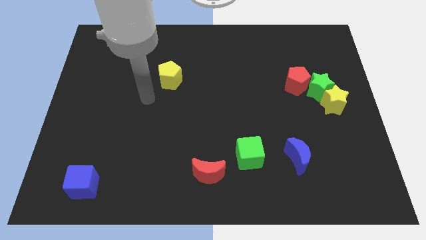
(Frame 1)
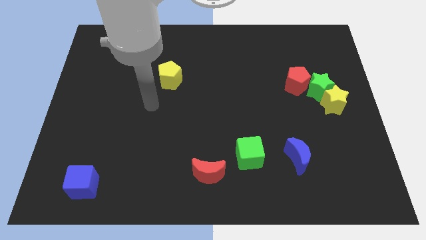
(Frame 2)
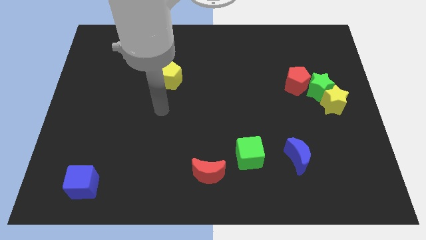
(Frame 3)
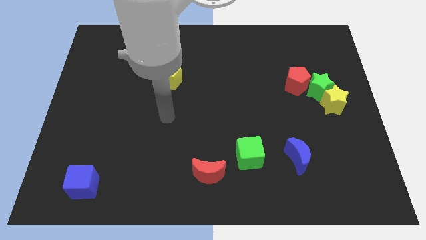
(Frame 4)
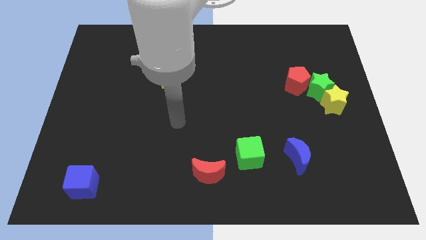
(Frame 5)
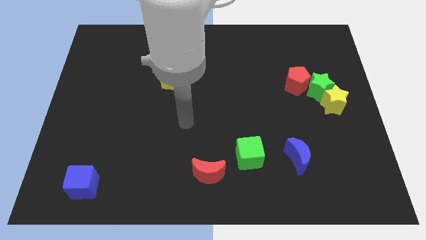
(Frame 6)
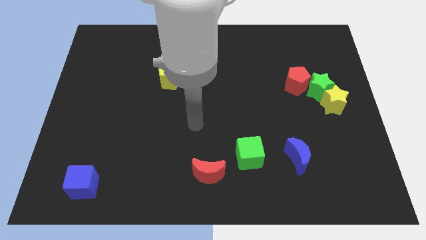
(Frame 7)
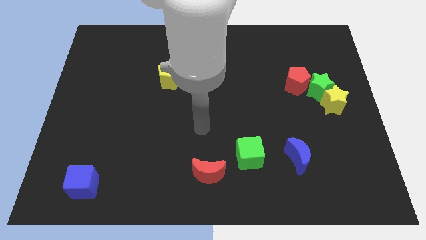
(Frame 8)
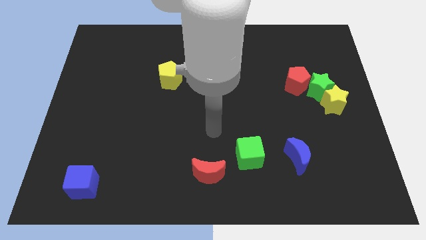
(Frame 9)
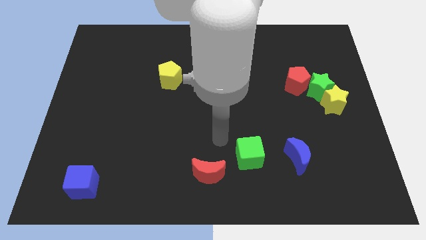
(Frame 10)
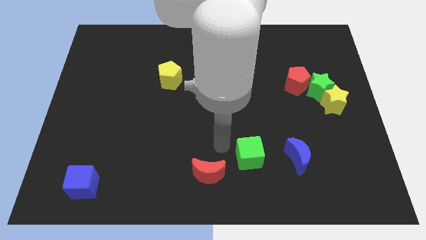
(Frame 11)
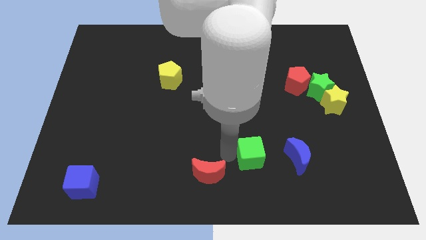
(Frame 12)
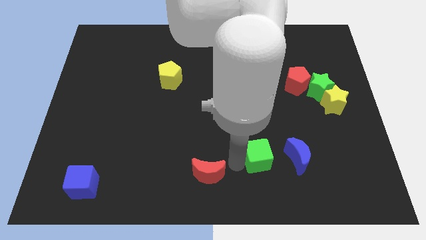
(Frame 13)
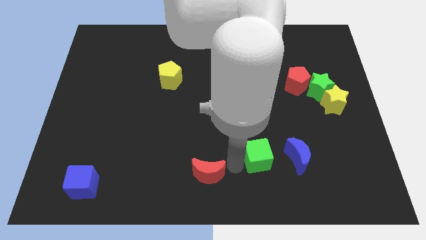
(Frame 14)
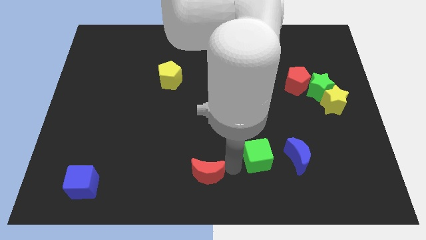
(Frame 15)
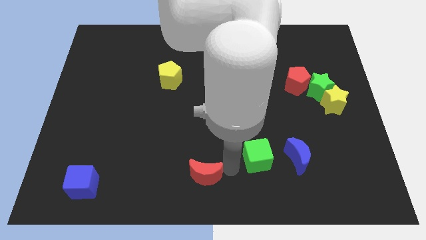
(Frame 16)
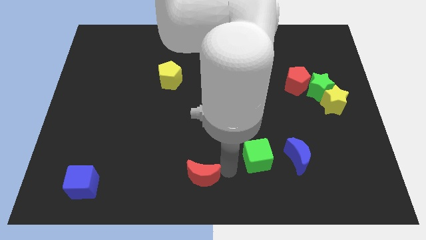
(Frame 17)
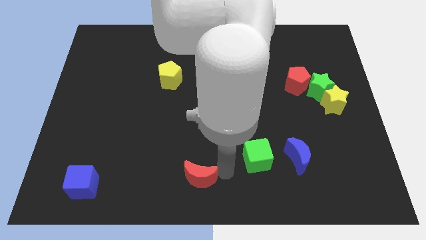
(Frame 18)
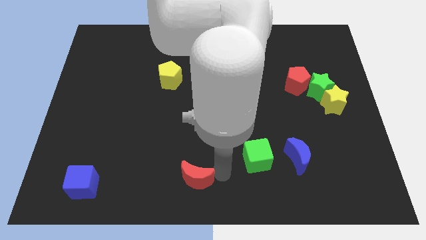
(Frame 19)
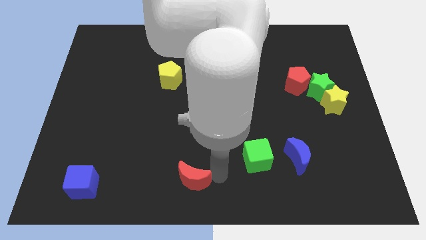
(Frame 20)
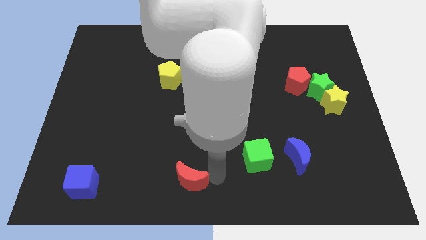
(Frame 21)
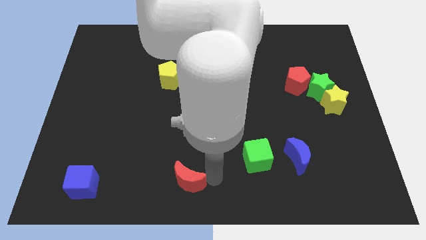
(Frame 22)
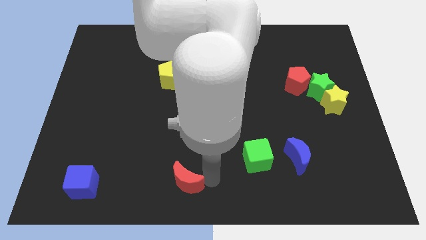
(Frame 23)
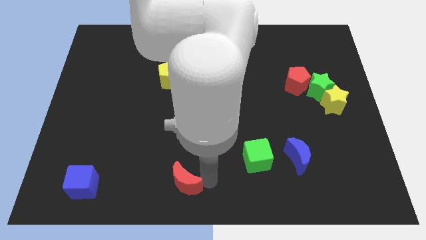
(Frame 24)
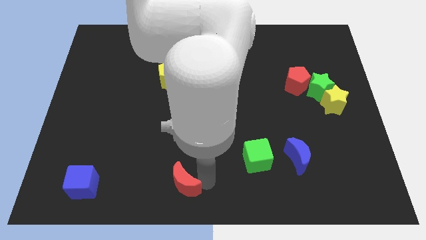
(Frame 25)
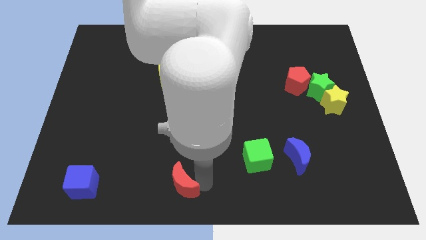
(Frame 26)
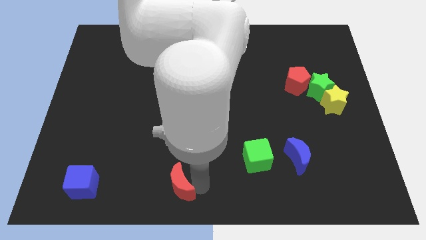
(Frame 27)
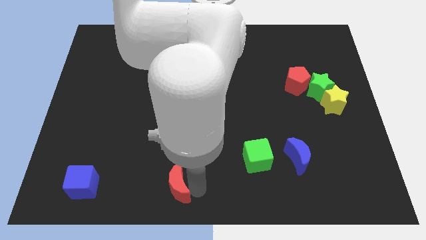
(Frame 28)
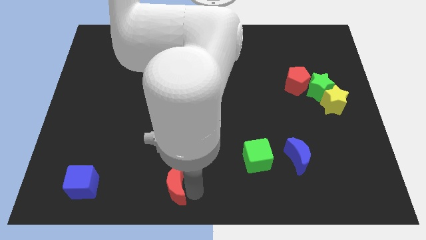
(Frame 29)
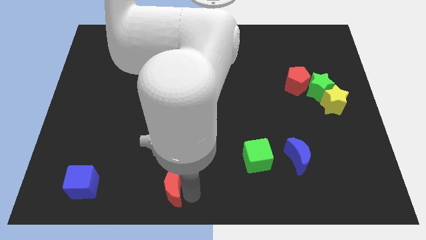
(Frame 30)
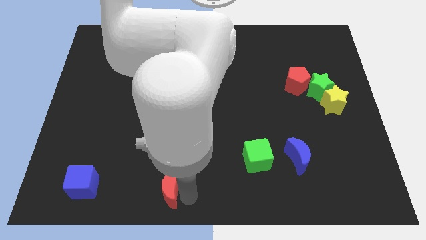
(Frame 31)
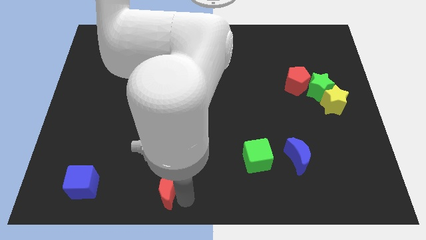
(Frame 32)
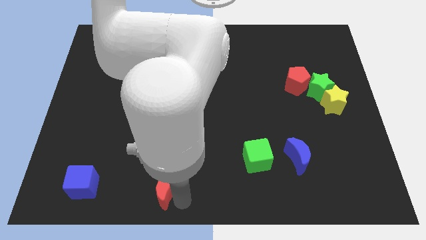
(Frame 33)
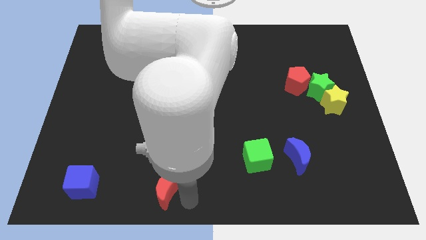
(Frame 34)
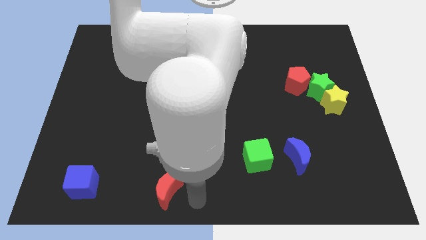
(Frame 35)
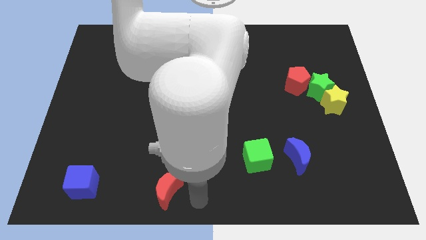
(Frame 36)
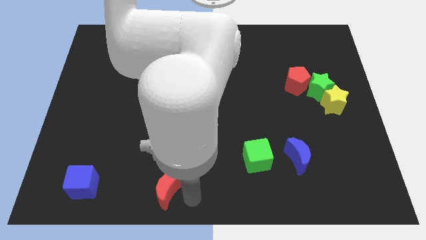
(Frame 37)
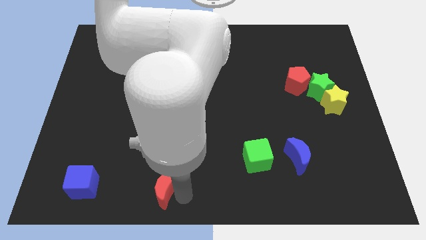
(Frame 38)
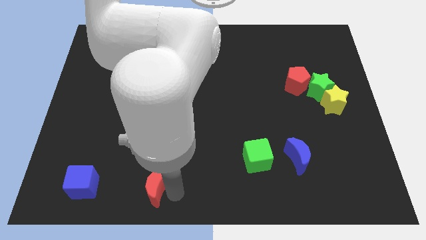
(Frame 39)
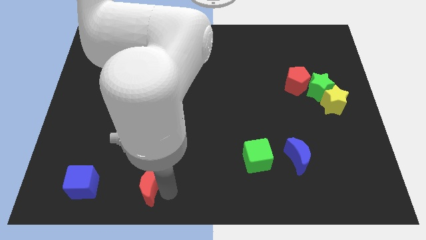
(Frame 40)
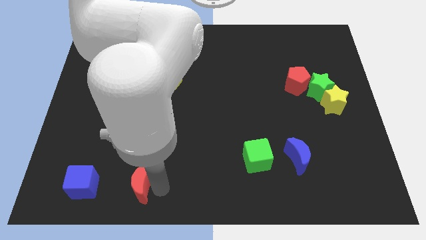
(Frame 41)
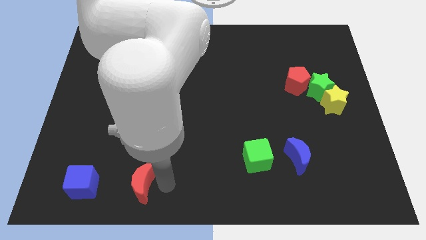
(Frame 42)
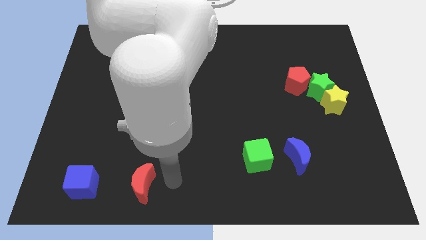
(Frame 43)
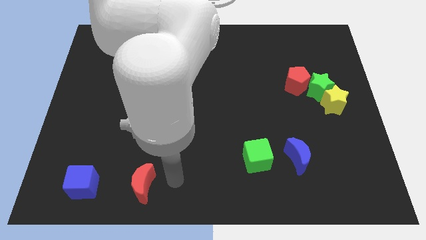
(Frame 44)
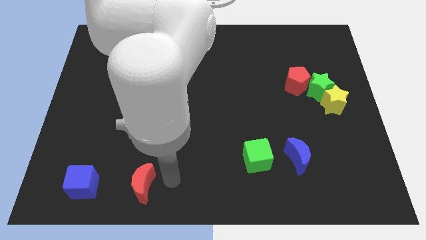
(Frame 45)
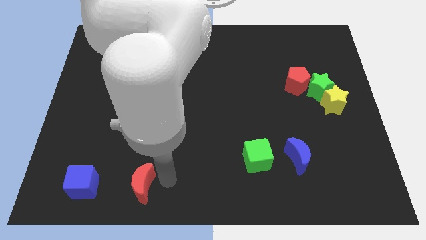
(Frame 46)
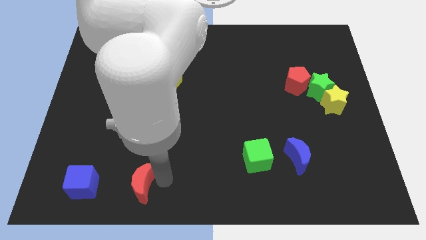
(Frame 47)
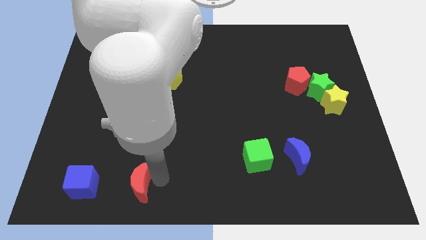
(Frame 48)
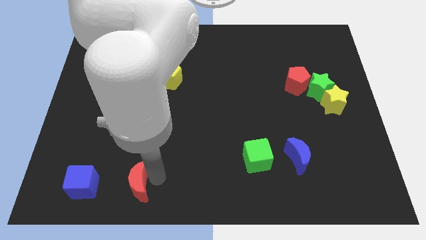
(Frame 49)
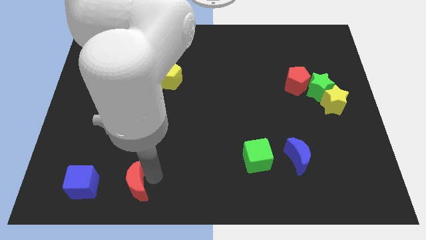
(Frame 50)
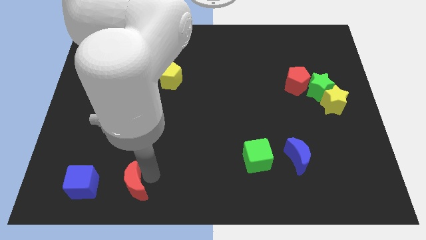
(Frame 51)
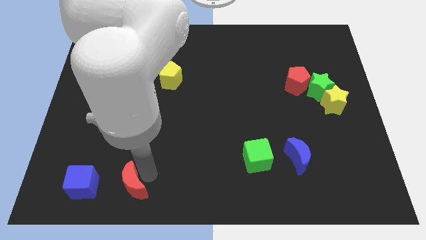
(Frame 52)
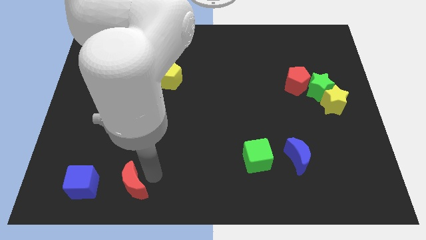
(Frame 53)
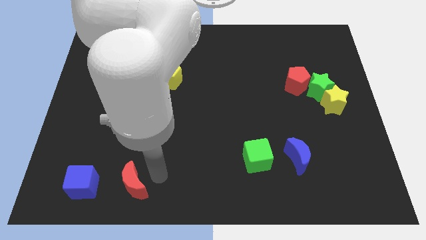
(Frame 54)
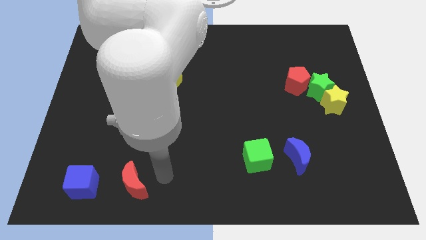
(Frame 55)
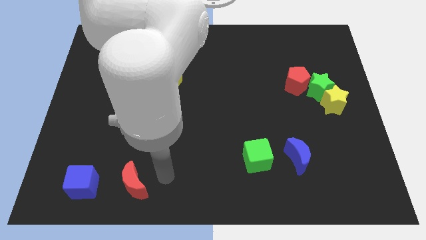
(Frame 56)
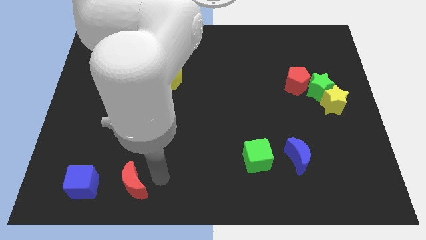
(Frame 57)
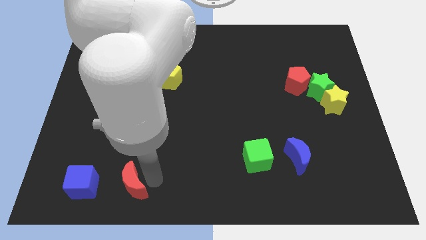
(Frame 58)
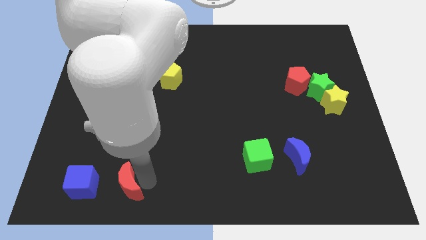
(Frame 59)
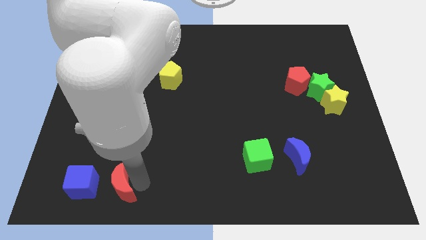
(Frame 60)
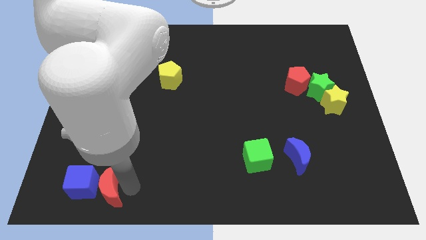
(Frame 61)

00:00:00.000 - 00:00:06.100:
slide the red moon to the blue cube

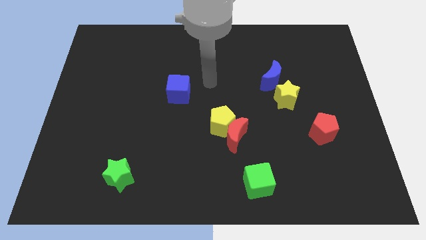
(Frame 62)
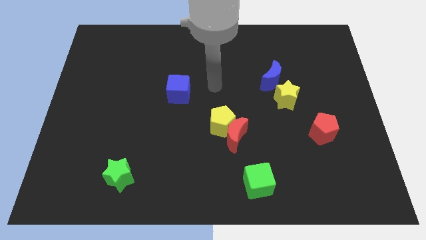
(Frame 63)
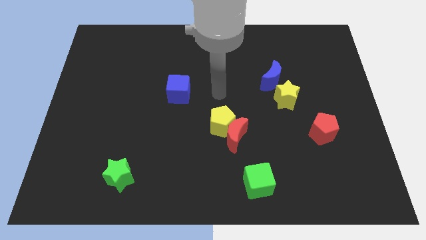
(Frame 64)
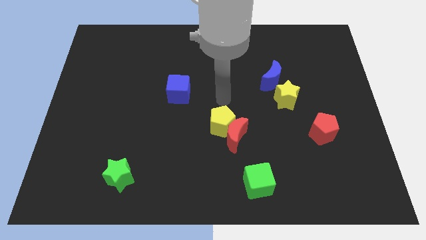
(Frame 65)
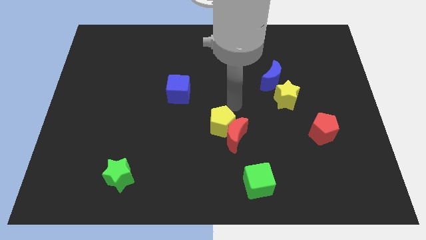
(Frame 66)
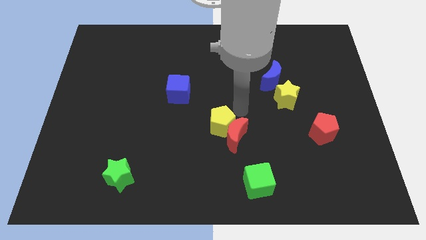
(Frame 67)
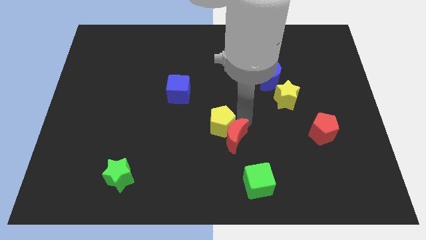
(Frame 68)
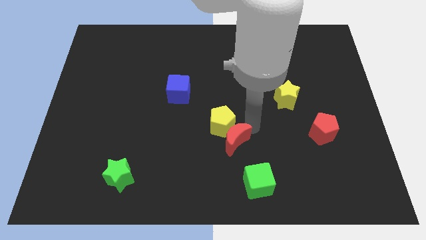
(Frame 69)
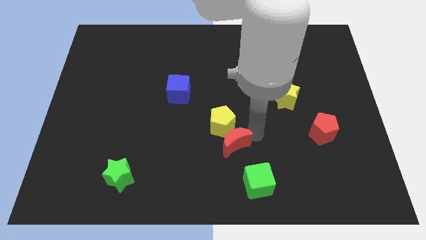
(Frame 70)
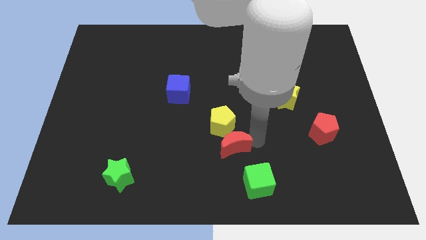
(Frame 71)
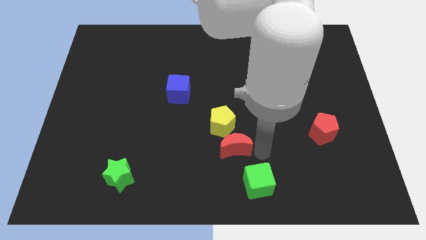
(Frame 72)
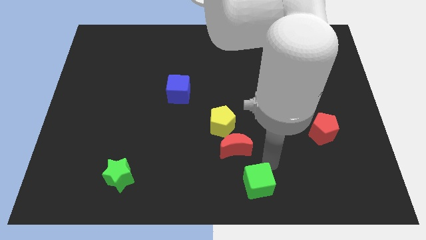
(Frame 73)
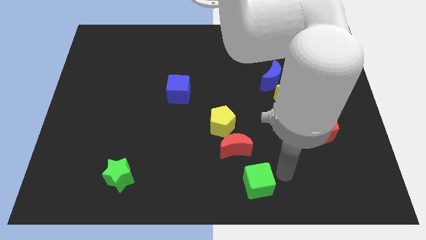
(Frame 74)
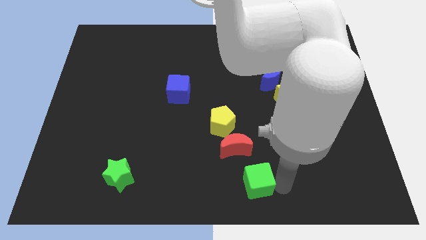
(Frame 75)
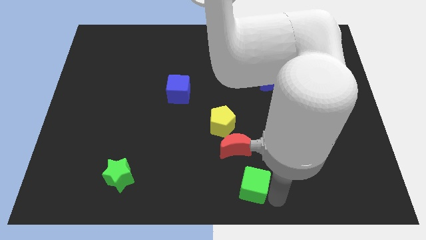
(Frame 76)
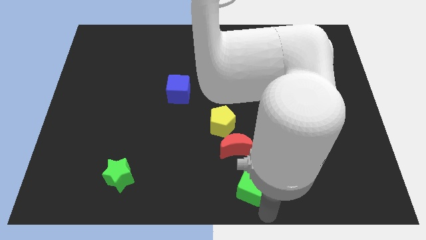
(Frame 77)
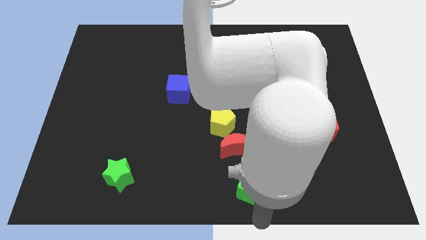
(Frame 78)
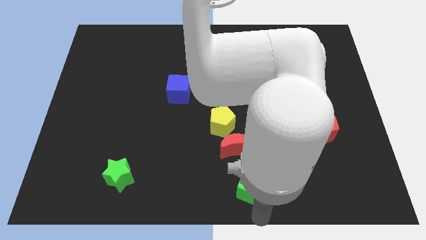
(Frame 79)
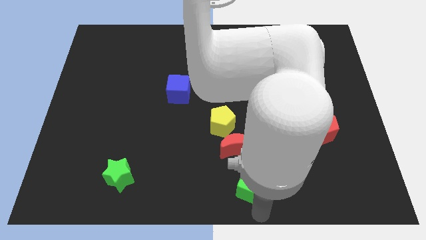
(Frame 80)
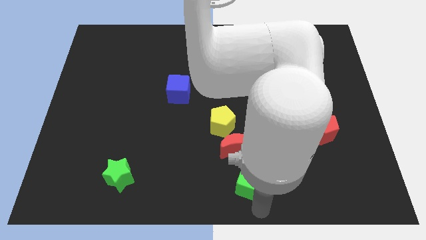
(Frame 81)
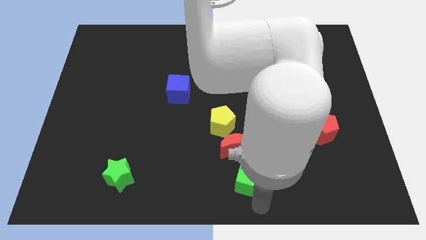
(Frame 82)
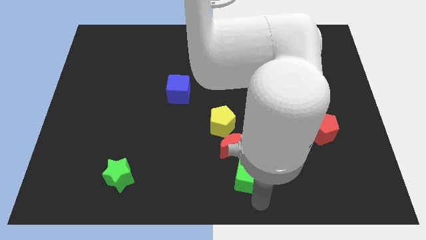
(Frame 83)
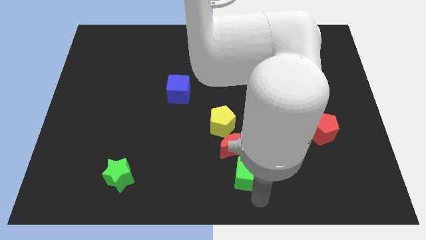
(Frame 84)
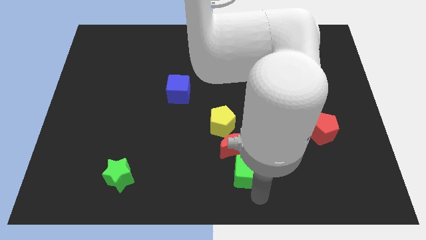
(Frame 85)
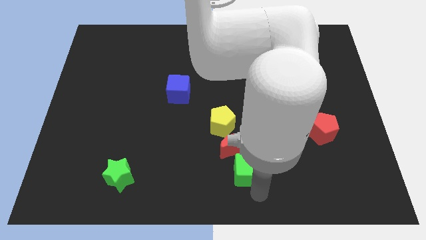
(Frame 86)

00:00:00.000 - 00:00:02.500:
push the green cube to the red moon
